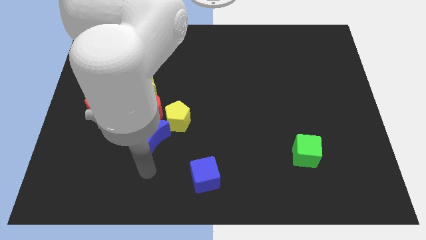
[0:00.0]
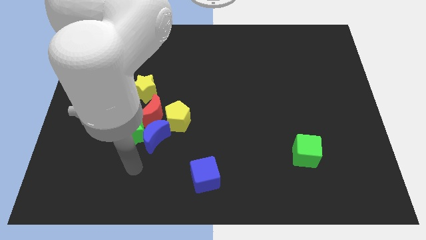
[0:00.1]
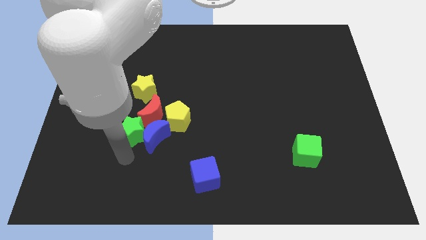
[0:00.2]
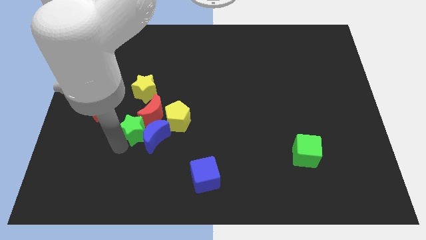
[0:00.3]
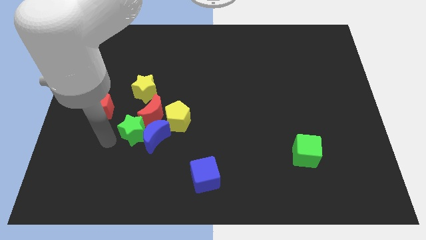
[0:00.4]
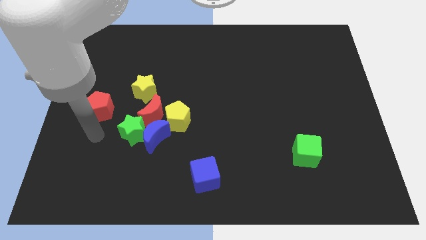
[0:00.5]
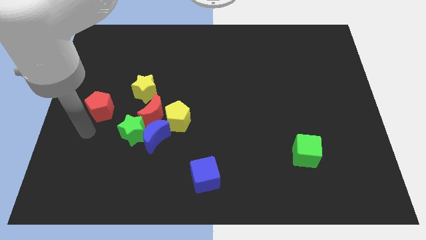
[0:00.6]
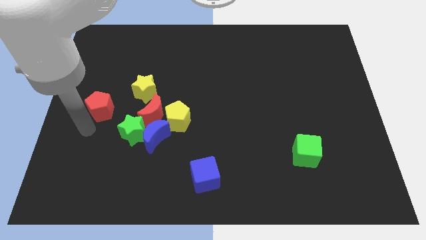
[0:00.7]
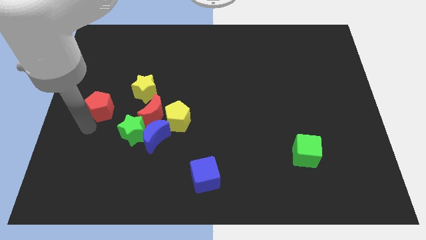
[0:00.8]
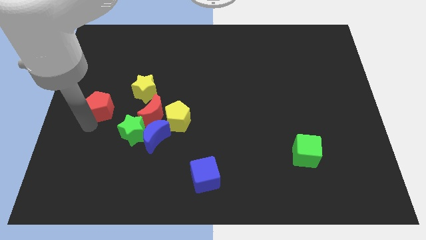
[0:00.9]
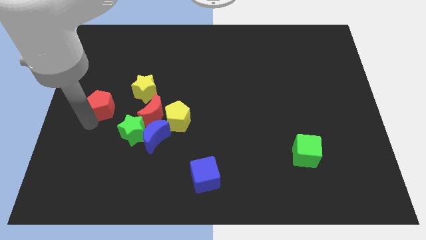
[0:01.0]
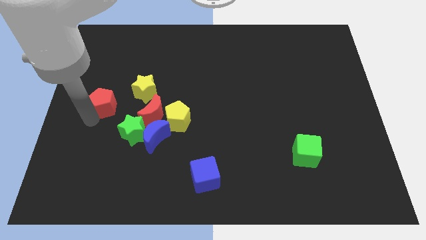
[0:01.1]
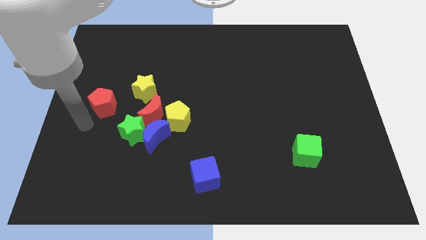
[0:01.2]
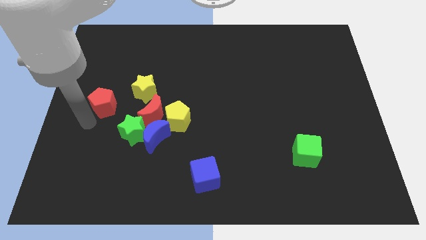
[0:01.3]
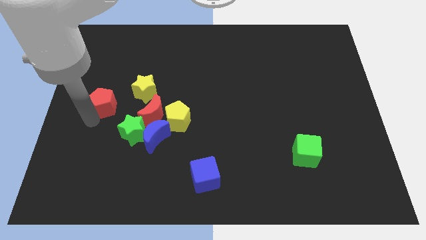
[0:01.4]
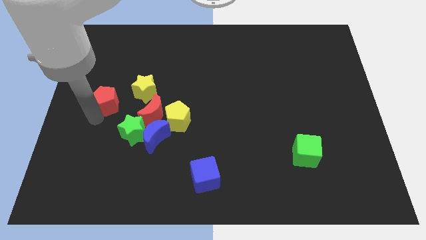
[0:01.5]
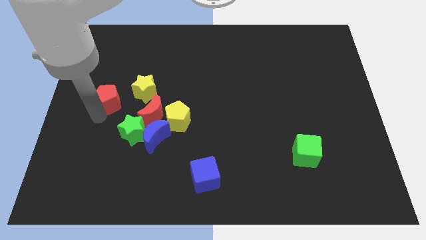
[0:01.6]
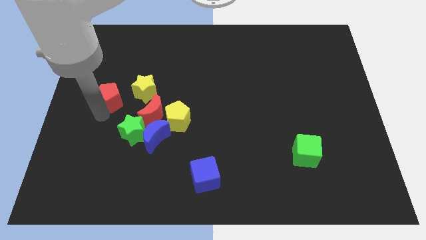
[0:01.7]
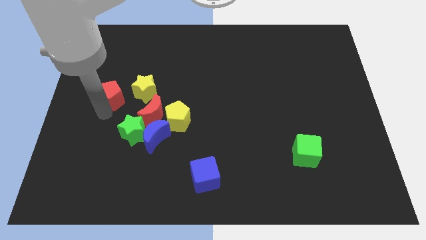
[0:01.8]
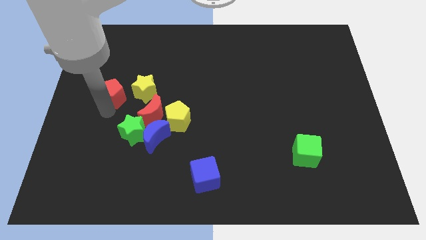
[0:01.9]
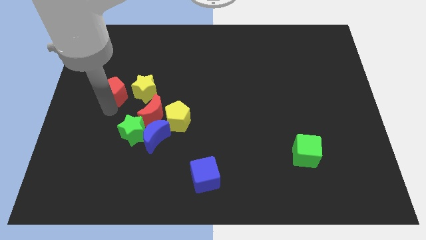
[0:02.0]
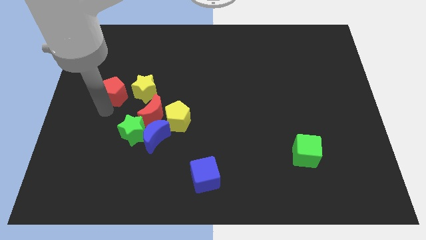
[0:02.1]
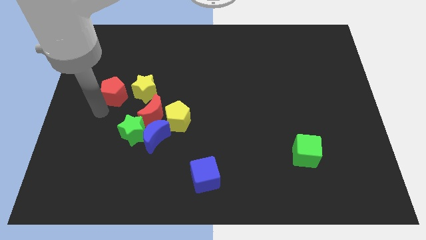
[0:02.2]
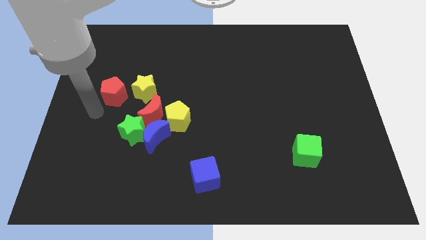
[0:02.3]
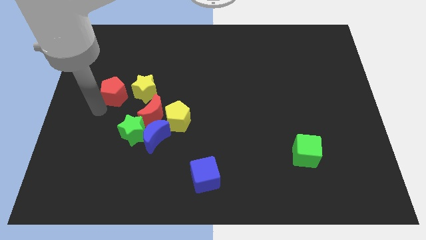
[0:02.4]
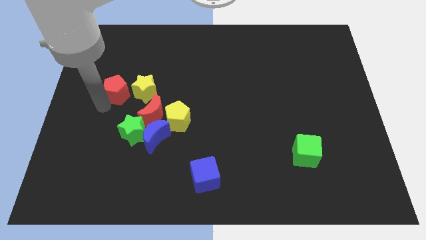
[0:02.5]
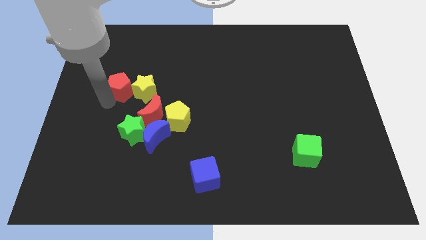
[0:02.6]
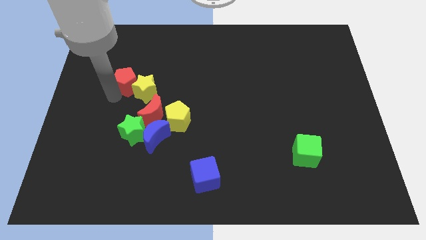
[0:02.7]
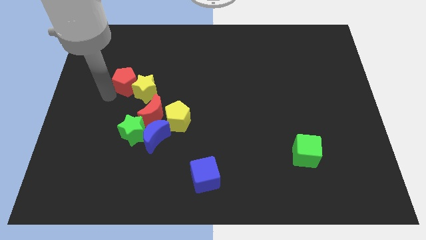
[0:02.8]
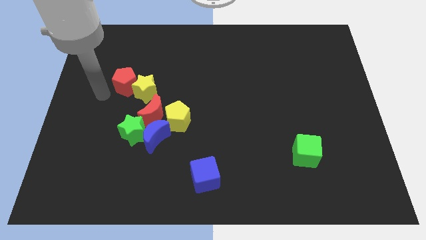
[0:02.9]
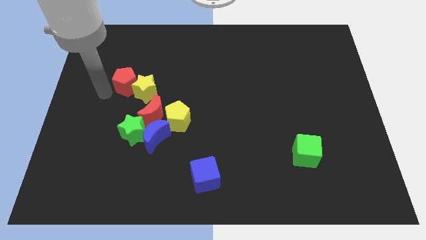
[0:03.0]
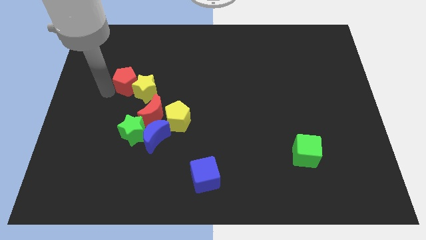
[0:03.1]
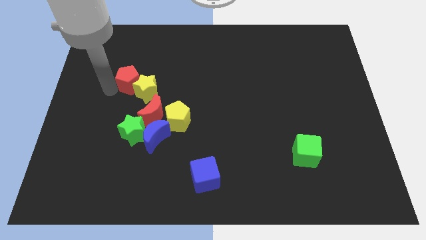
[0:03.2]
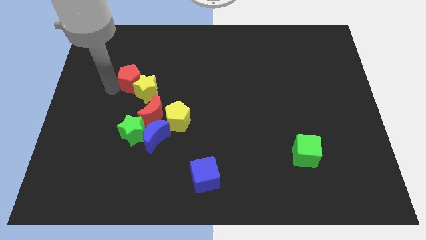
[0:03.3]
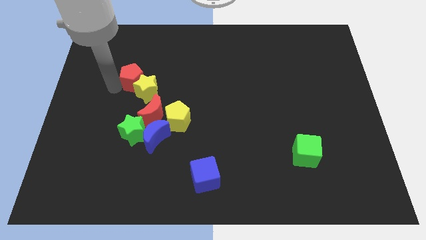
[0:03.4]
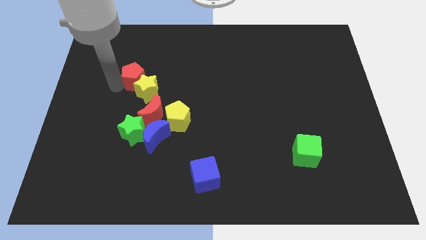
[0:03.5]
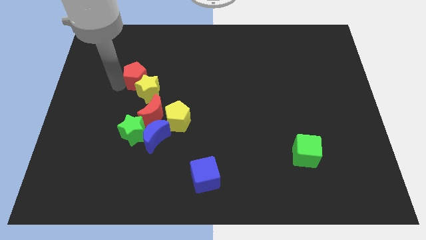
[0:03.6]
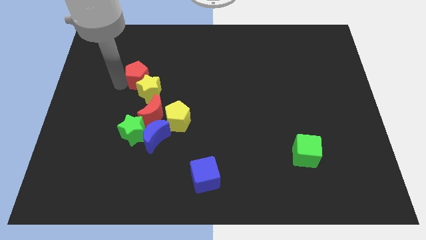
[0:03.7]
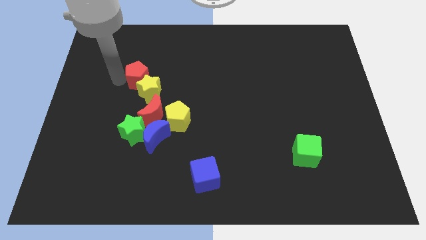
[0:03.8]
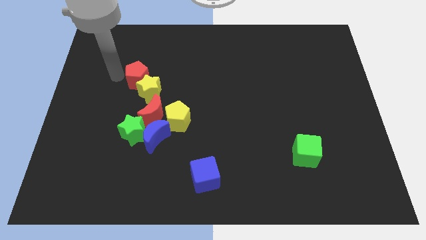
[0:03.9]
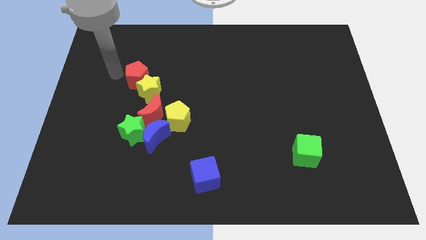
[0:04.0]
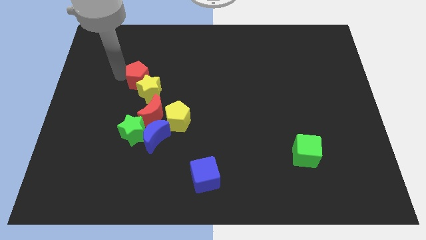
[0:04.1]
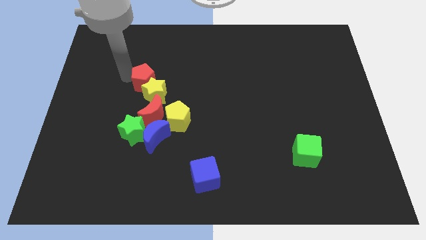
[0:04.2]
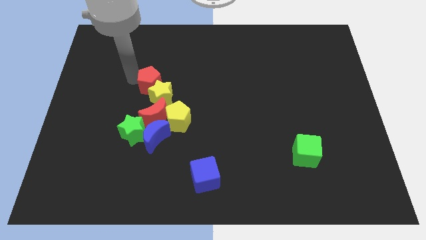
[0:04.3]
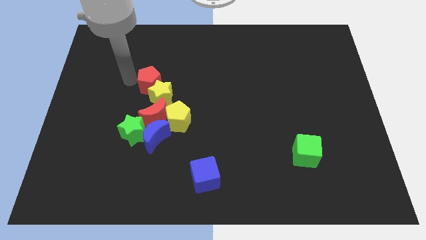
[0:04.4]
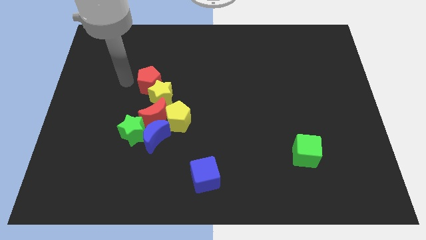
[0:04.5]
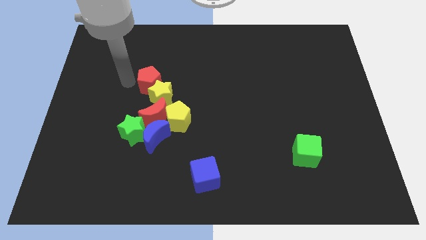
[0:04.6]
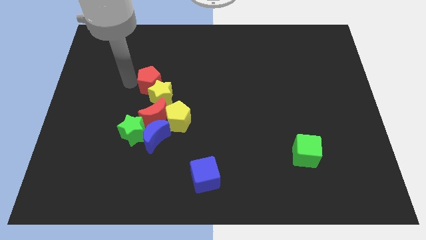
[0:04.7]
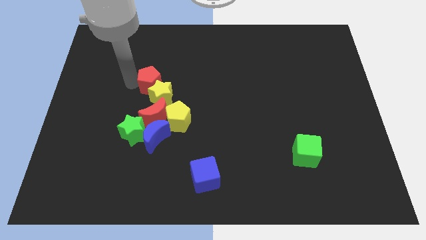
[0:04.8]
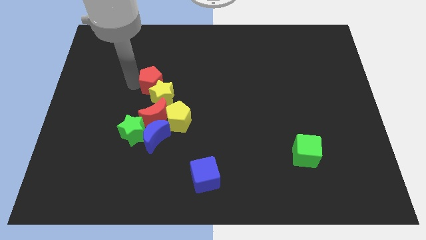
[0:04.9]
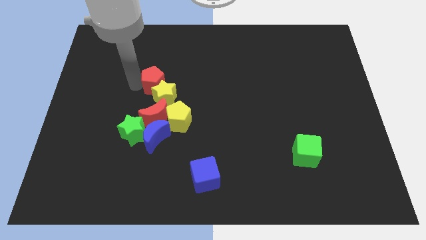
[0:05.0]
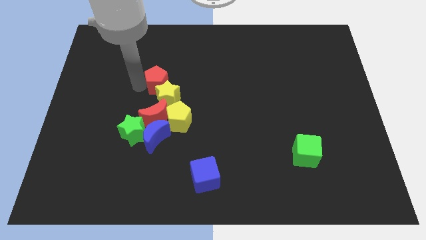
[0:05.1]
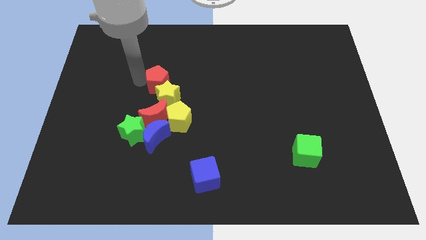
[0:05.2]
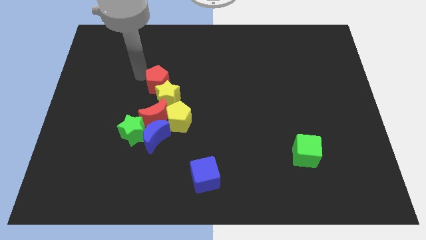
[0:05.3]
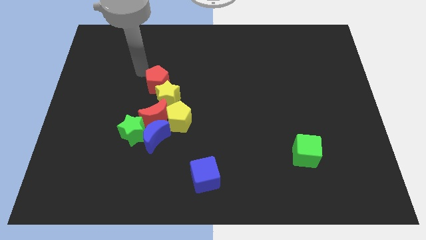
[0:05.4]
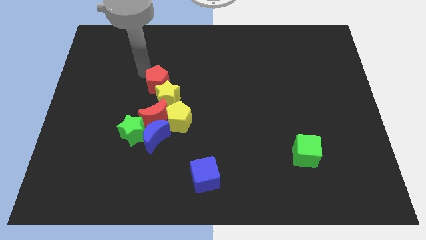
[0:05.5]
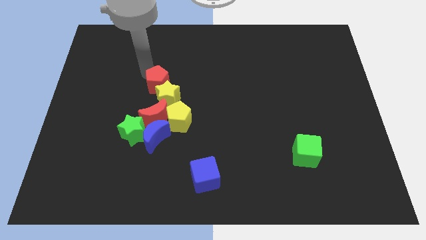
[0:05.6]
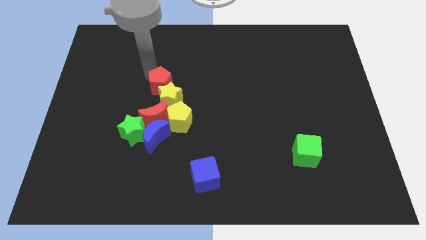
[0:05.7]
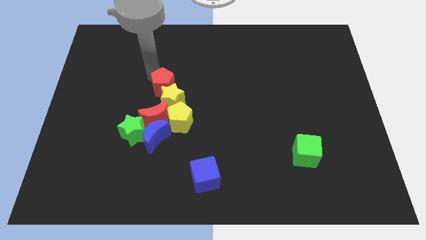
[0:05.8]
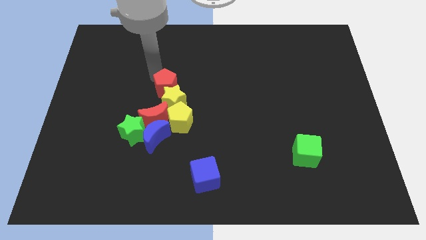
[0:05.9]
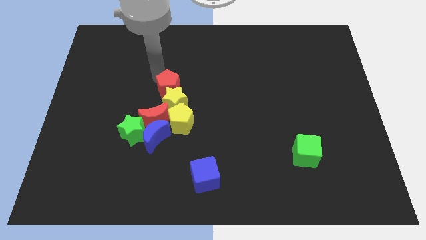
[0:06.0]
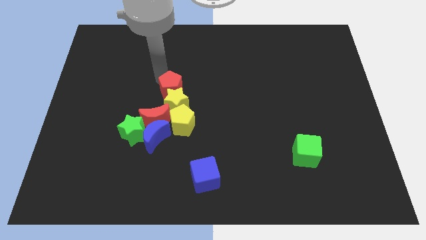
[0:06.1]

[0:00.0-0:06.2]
push the red pentagon diagonally up and to the right of the red moon

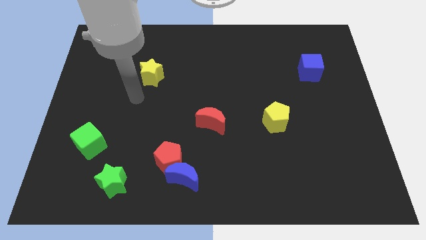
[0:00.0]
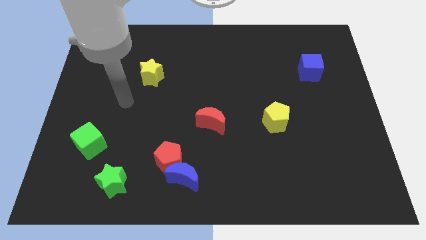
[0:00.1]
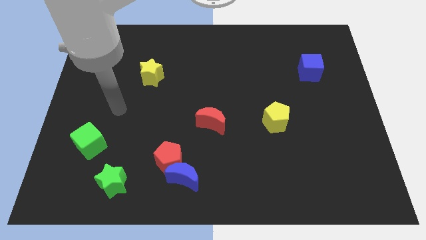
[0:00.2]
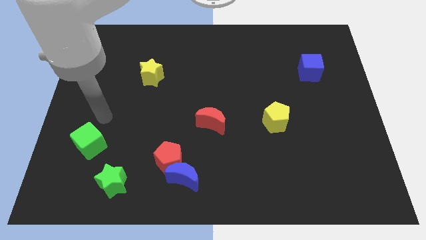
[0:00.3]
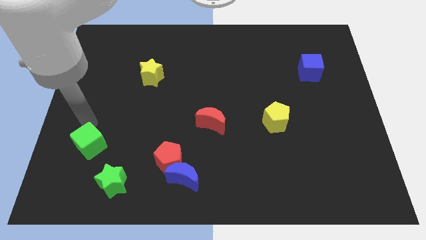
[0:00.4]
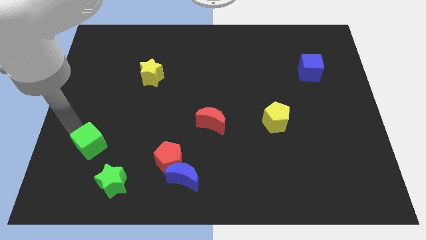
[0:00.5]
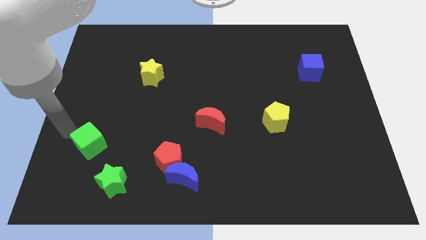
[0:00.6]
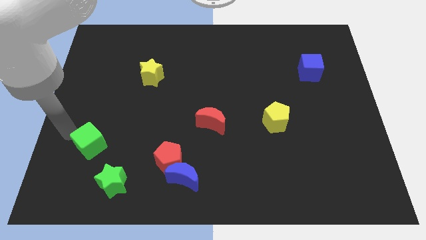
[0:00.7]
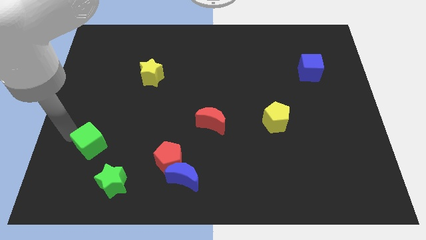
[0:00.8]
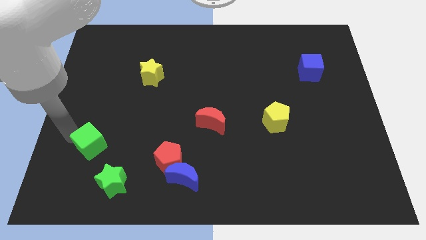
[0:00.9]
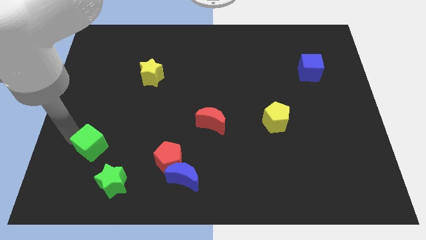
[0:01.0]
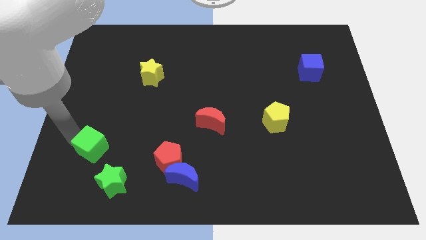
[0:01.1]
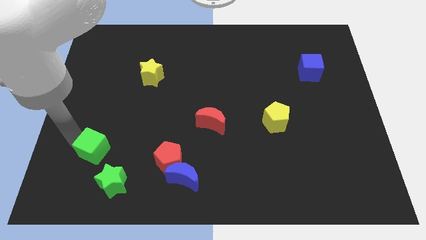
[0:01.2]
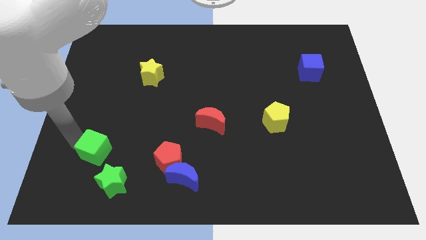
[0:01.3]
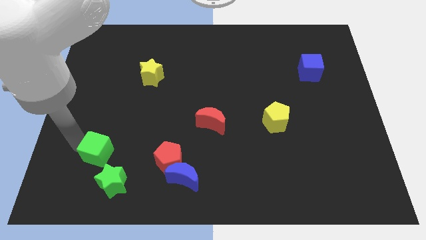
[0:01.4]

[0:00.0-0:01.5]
move the green cube to the left of the red pentagon
